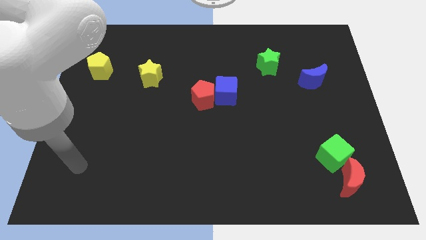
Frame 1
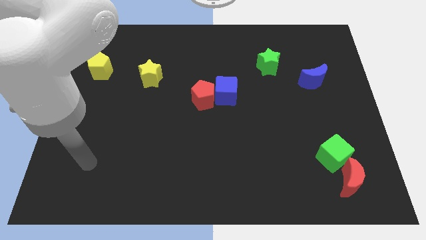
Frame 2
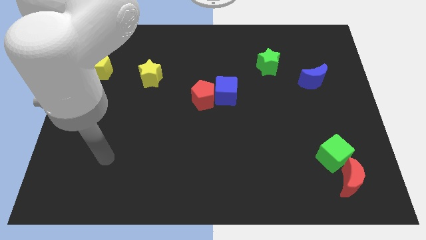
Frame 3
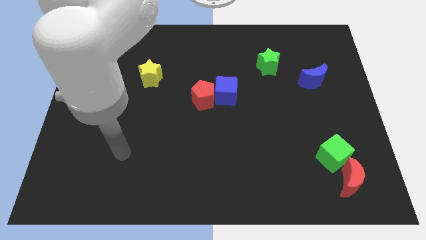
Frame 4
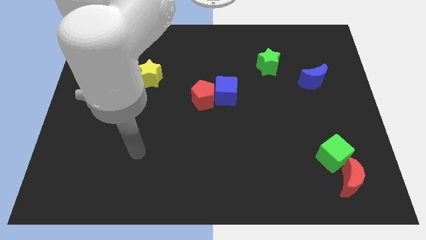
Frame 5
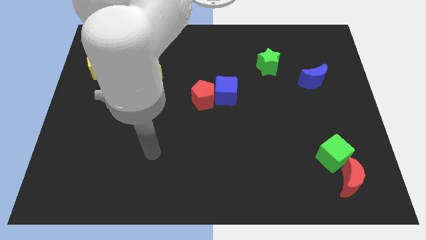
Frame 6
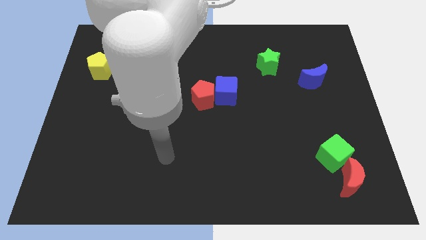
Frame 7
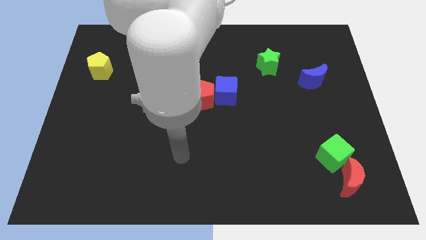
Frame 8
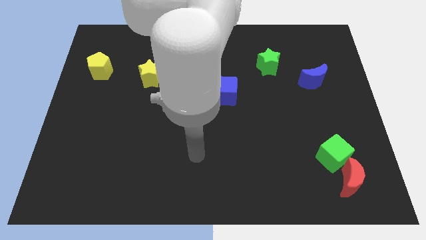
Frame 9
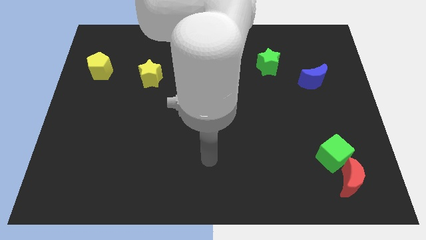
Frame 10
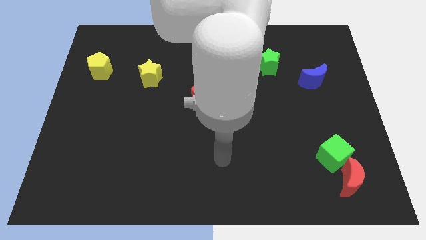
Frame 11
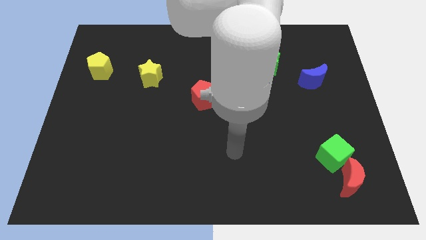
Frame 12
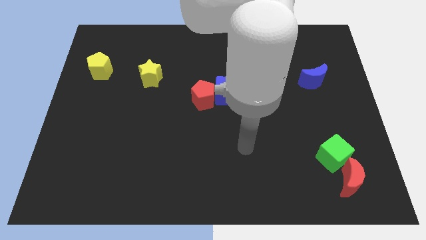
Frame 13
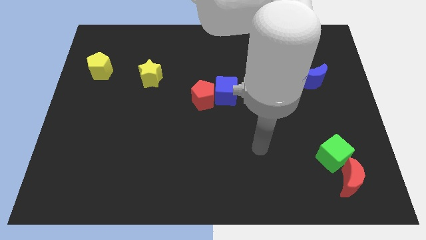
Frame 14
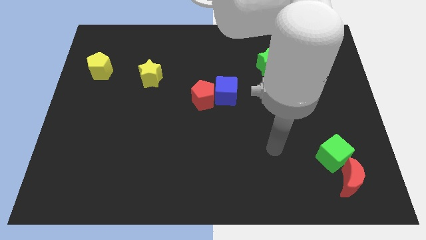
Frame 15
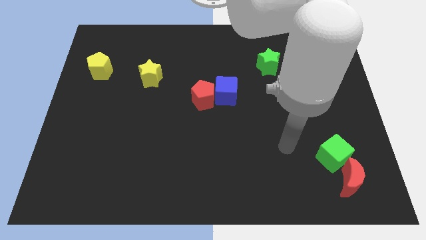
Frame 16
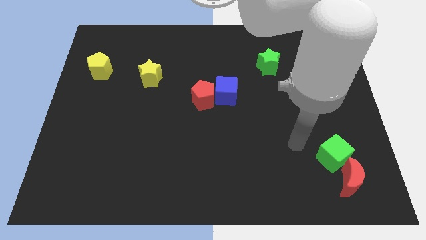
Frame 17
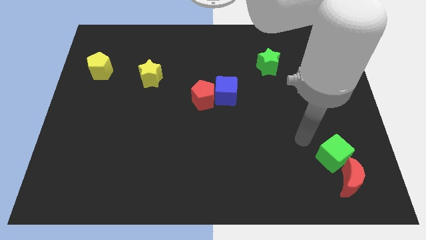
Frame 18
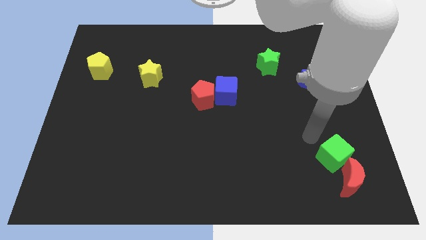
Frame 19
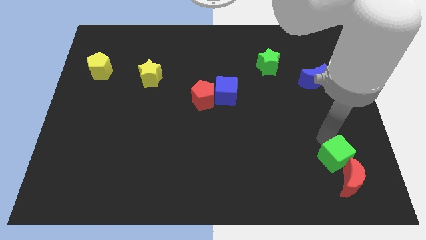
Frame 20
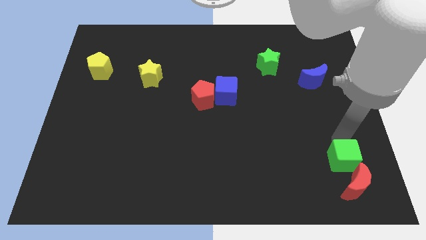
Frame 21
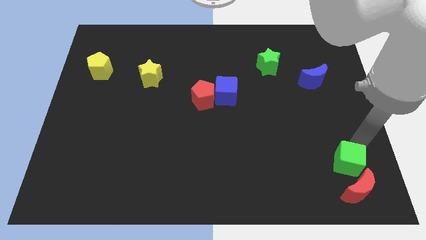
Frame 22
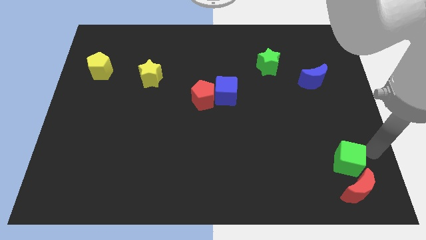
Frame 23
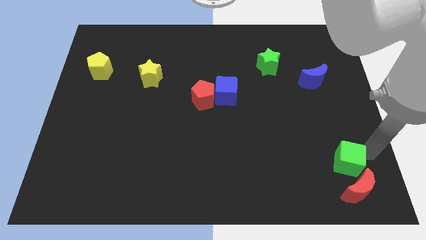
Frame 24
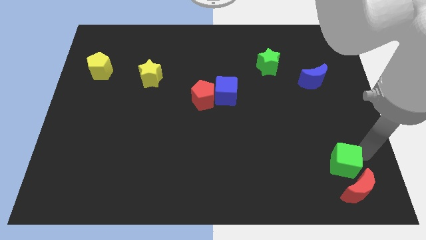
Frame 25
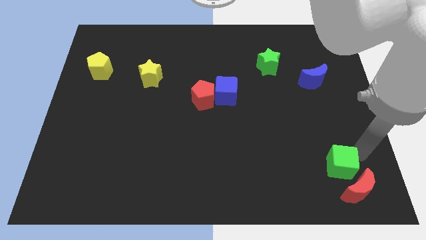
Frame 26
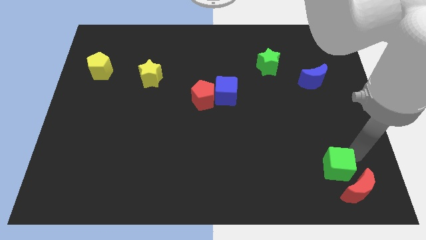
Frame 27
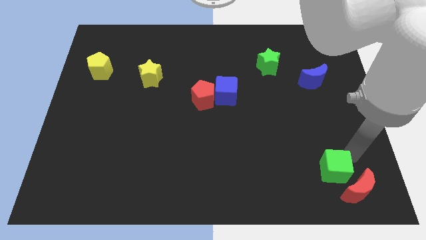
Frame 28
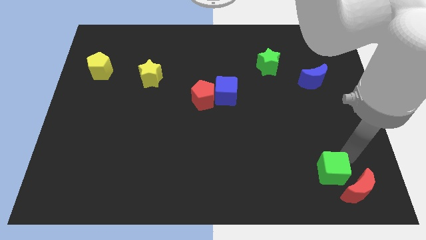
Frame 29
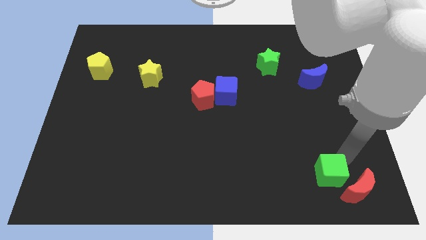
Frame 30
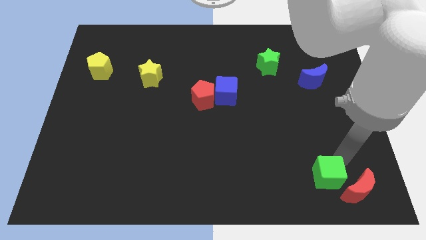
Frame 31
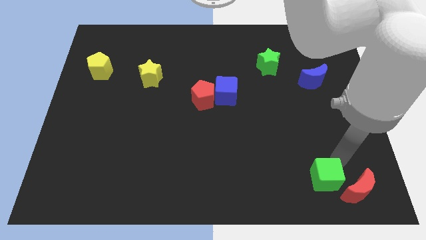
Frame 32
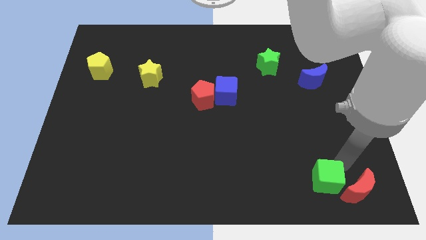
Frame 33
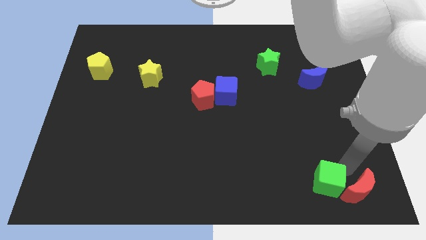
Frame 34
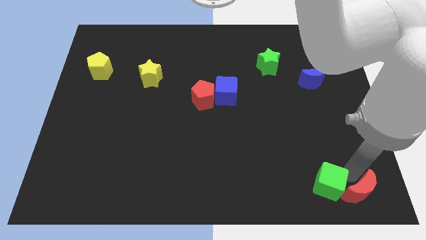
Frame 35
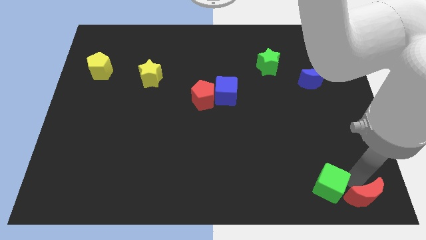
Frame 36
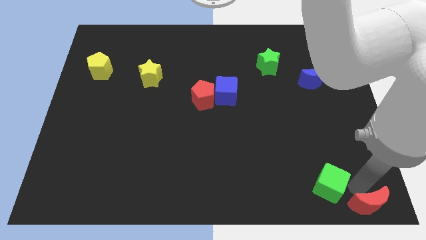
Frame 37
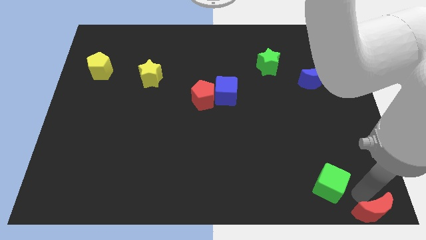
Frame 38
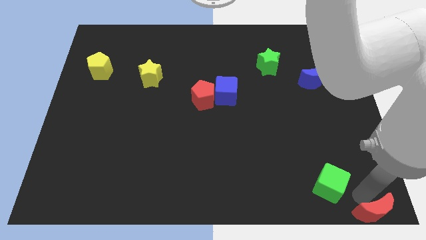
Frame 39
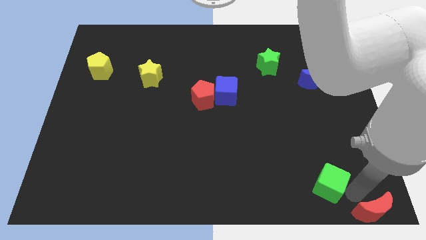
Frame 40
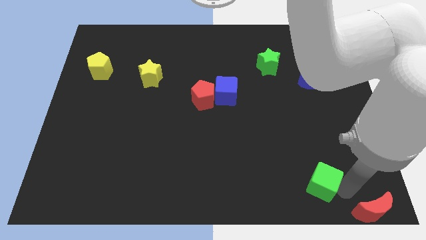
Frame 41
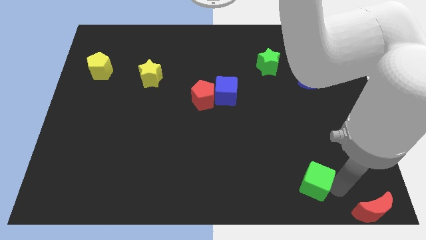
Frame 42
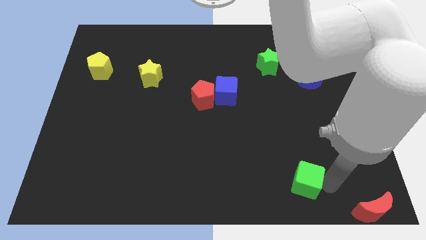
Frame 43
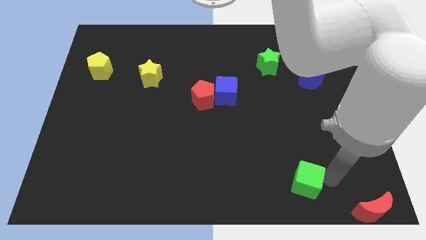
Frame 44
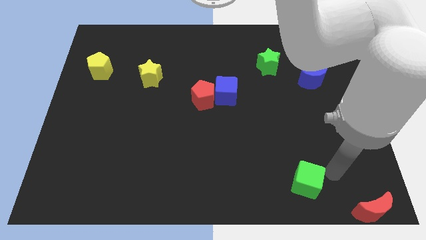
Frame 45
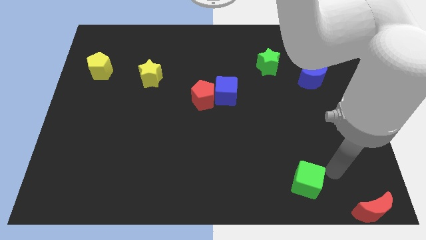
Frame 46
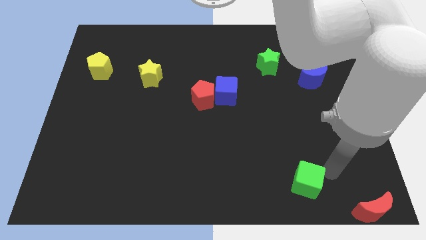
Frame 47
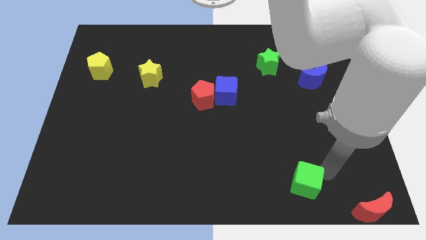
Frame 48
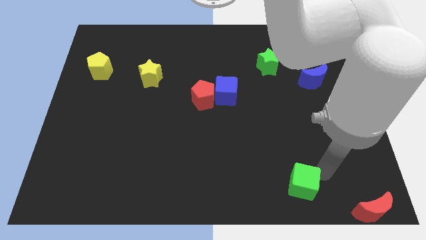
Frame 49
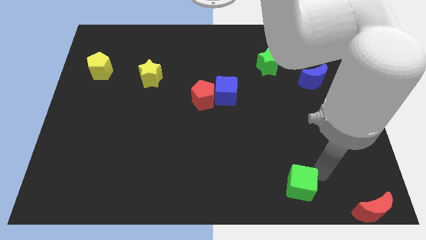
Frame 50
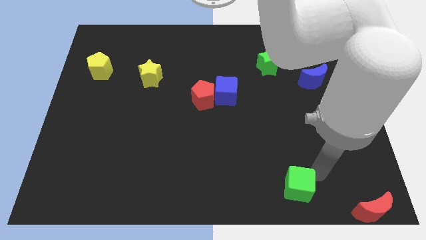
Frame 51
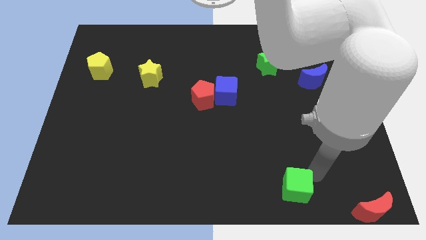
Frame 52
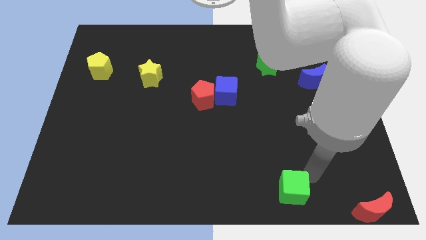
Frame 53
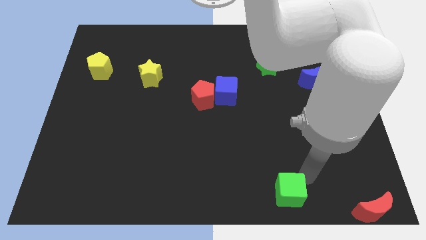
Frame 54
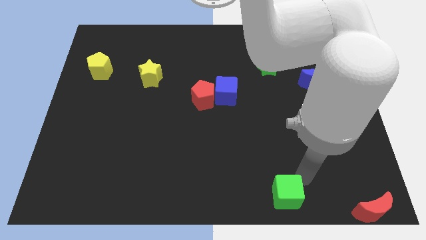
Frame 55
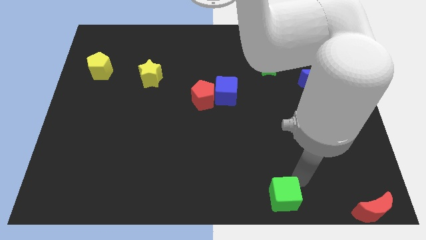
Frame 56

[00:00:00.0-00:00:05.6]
move the green cube to the bottom side
